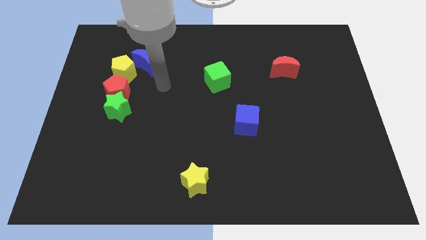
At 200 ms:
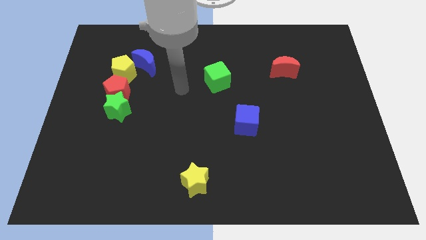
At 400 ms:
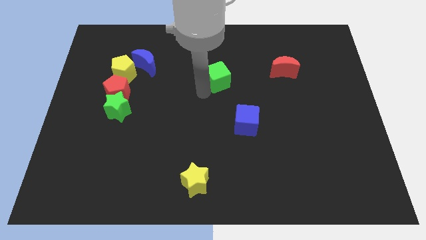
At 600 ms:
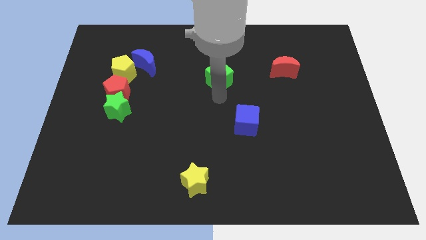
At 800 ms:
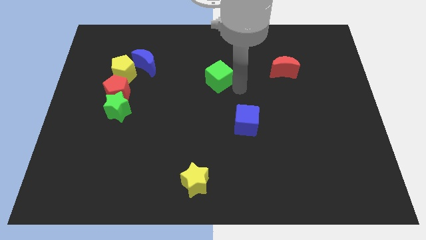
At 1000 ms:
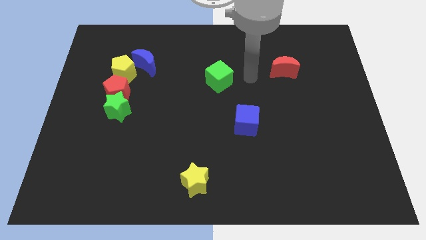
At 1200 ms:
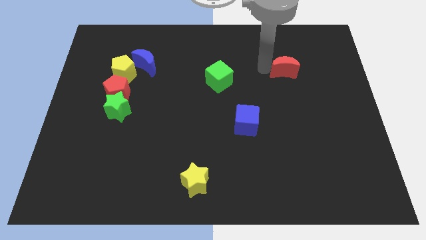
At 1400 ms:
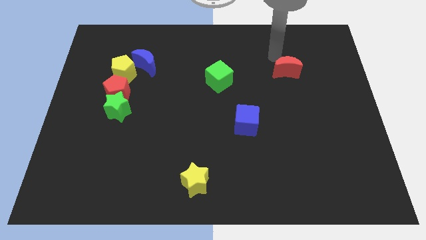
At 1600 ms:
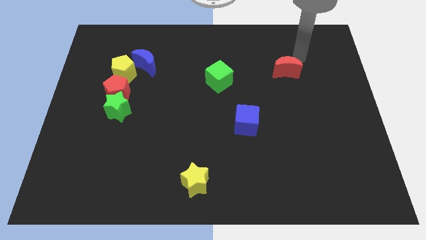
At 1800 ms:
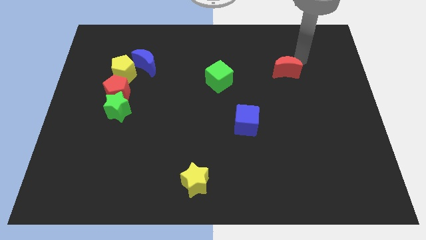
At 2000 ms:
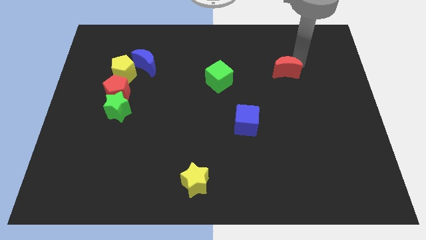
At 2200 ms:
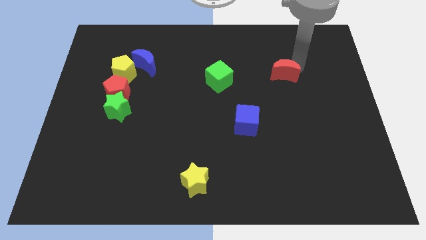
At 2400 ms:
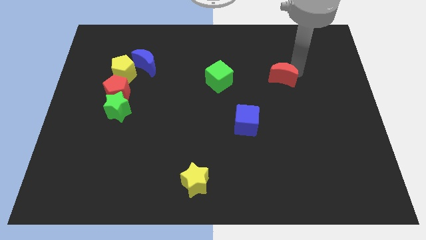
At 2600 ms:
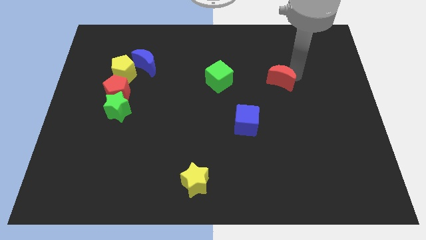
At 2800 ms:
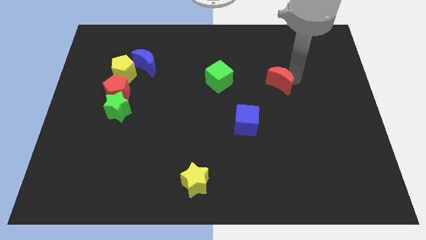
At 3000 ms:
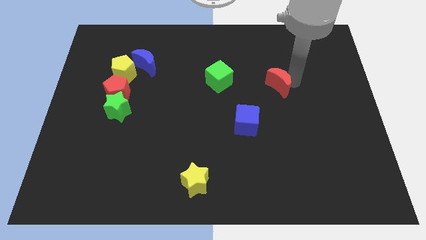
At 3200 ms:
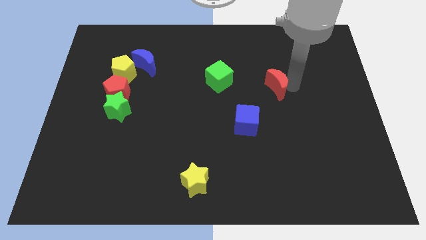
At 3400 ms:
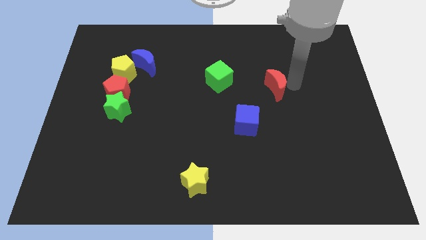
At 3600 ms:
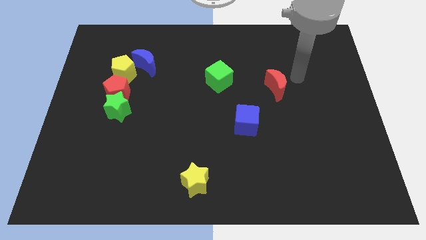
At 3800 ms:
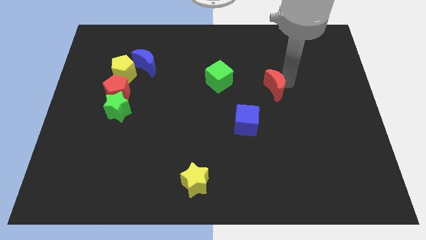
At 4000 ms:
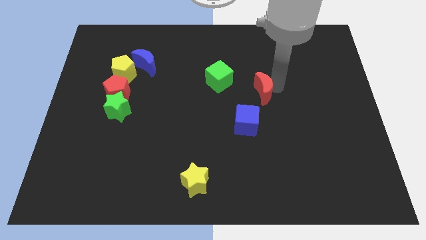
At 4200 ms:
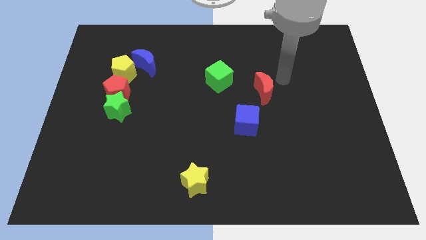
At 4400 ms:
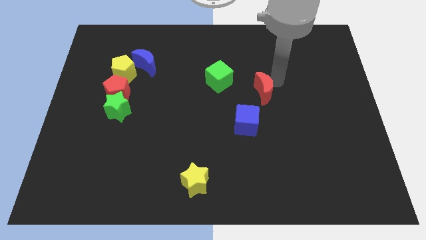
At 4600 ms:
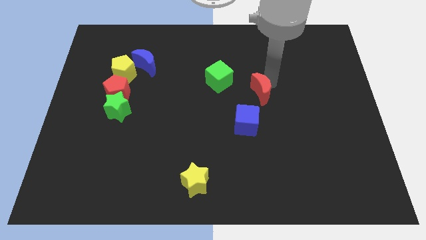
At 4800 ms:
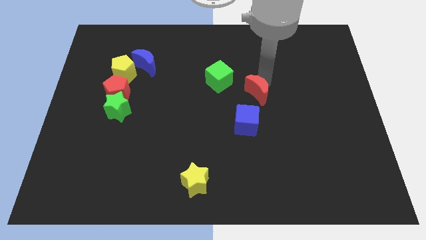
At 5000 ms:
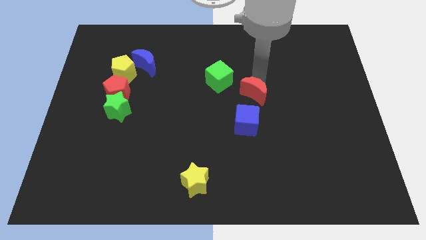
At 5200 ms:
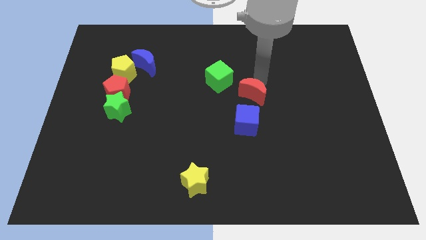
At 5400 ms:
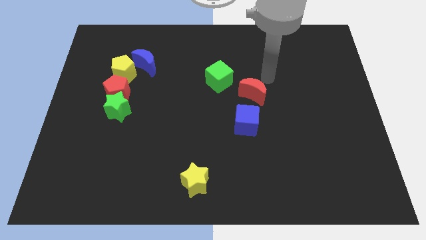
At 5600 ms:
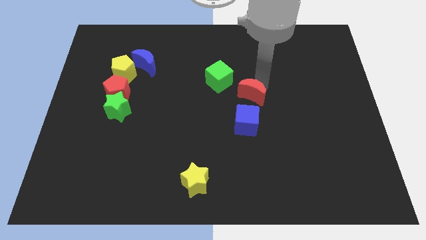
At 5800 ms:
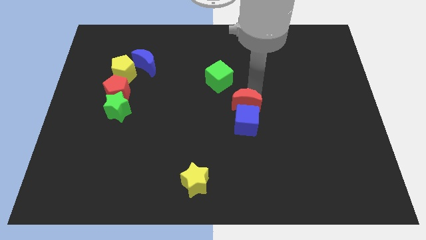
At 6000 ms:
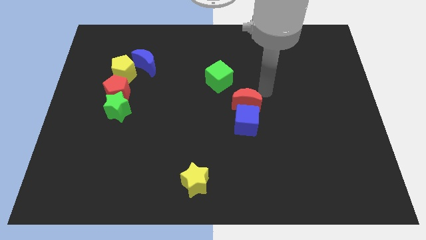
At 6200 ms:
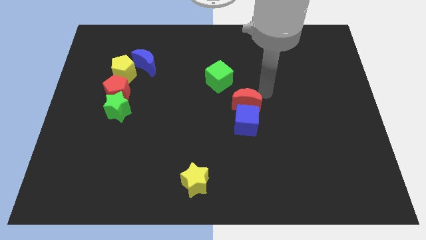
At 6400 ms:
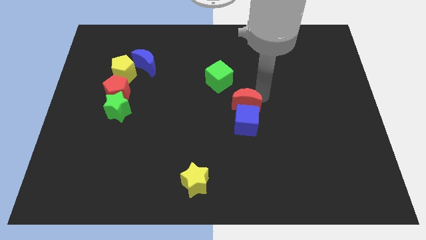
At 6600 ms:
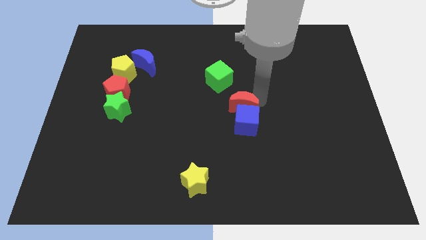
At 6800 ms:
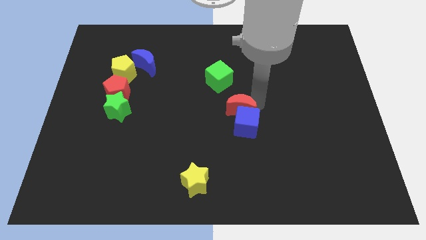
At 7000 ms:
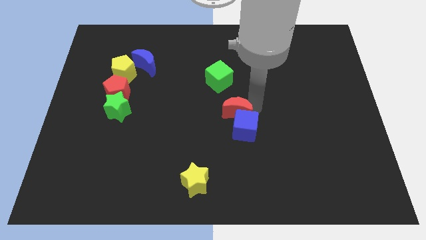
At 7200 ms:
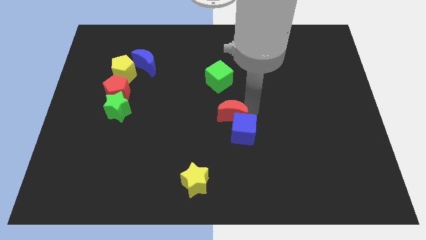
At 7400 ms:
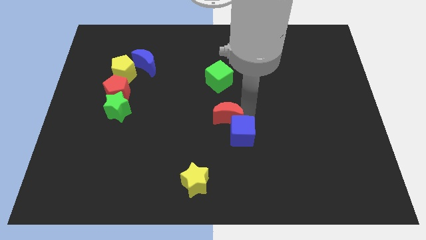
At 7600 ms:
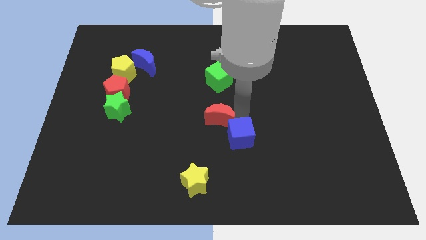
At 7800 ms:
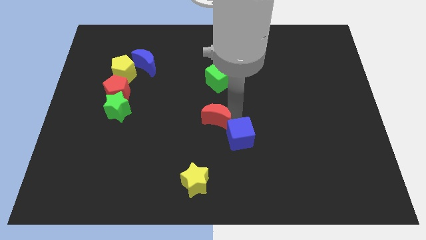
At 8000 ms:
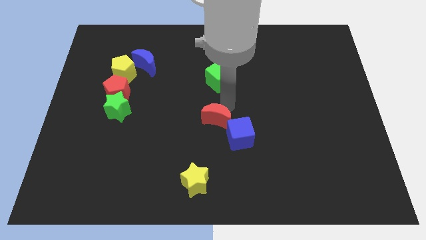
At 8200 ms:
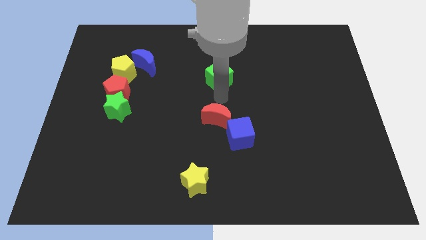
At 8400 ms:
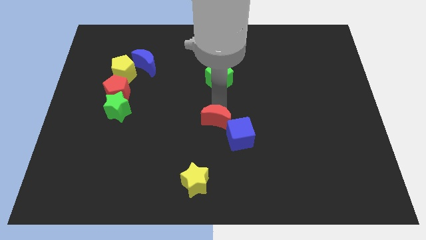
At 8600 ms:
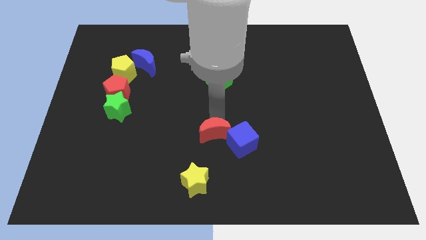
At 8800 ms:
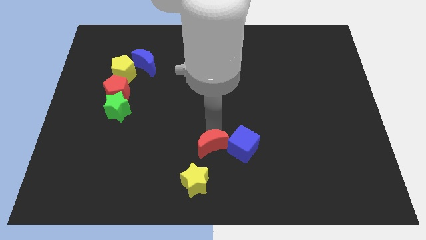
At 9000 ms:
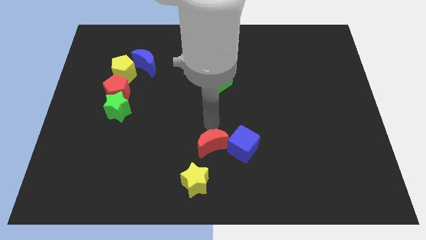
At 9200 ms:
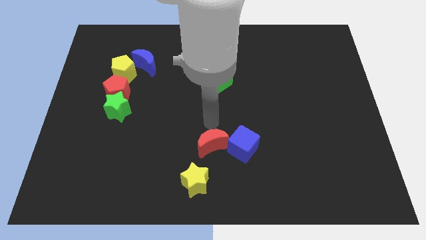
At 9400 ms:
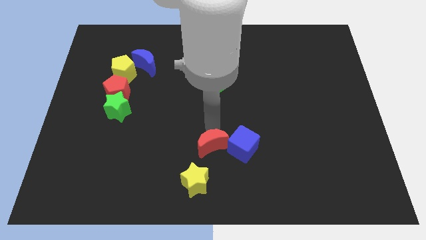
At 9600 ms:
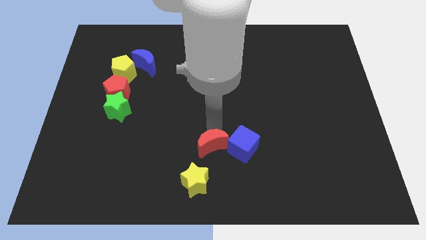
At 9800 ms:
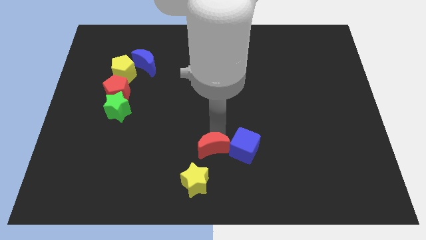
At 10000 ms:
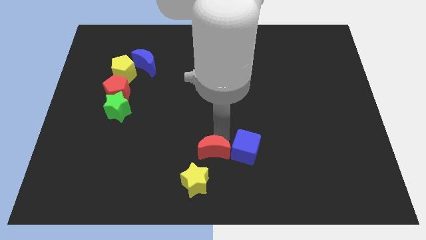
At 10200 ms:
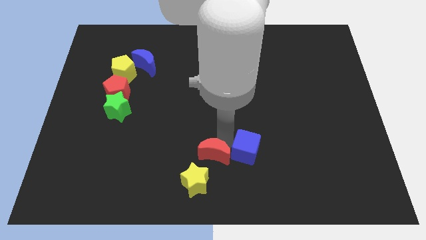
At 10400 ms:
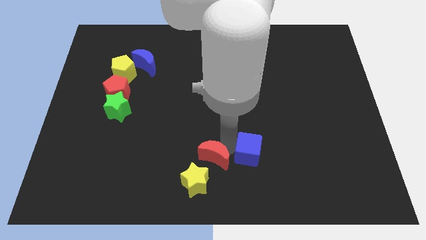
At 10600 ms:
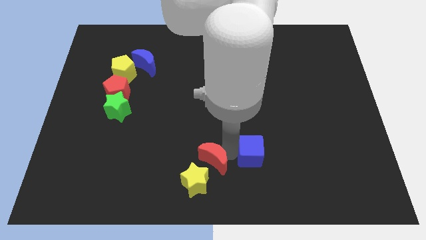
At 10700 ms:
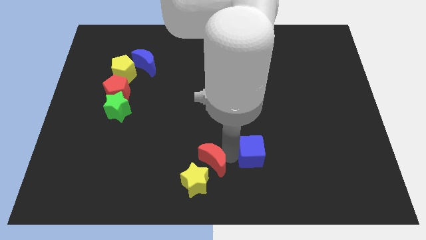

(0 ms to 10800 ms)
push the red moon towards the yellow star

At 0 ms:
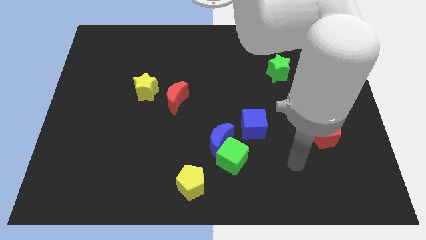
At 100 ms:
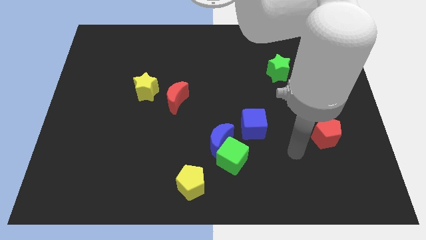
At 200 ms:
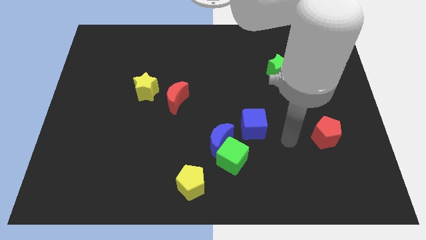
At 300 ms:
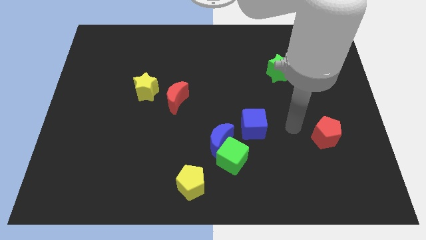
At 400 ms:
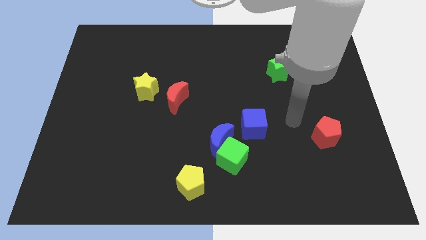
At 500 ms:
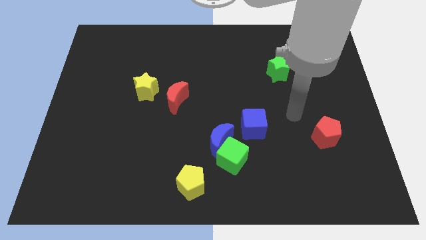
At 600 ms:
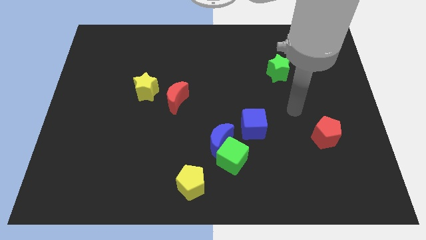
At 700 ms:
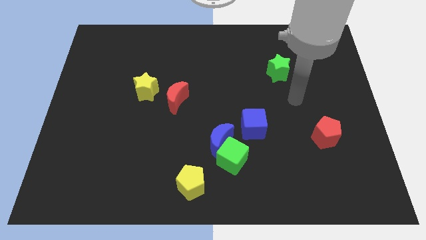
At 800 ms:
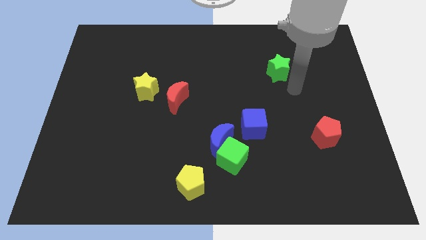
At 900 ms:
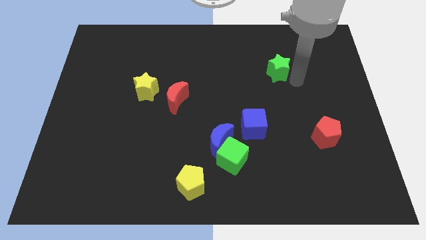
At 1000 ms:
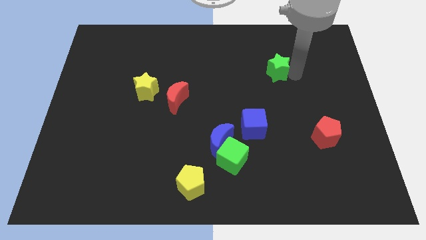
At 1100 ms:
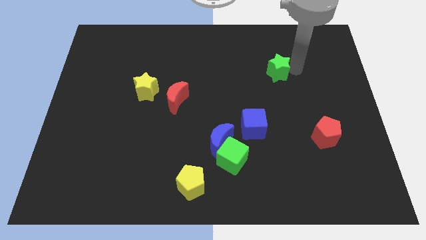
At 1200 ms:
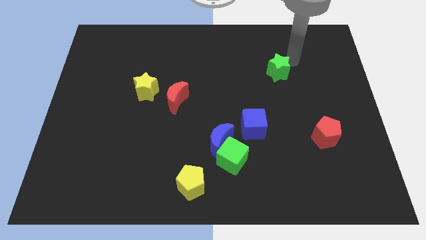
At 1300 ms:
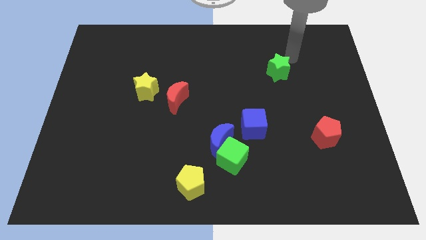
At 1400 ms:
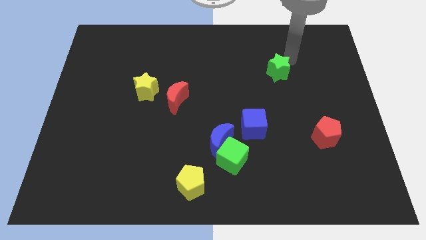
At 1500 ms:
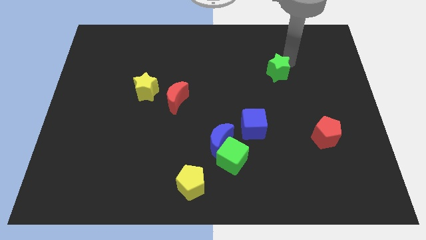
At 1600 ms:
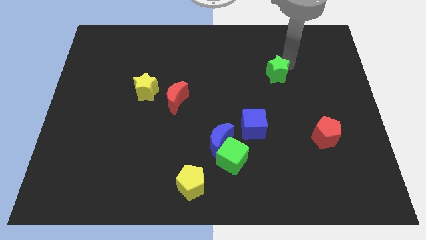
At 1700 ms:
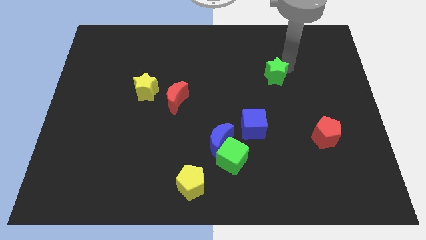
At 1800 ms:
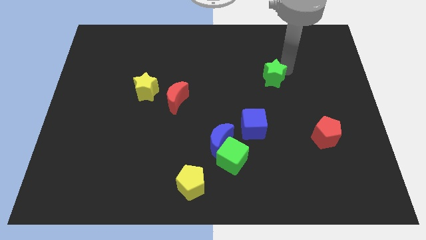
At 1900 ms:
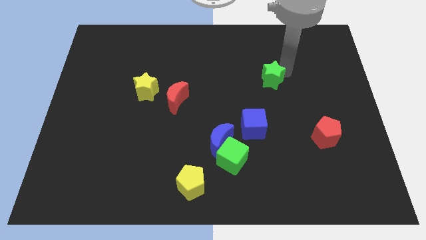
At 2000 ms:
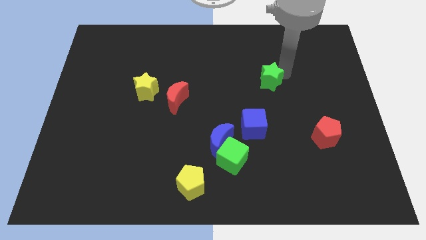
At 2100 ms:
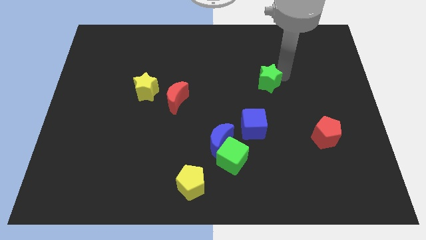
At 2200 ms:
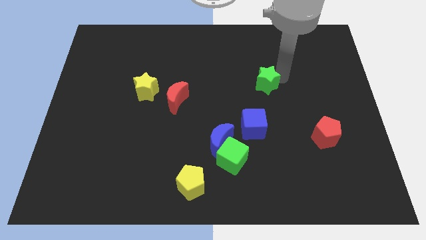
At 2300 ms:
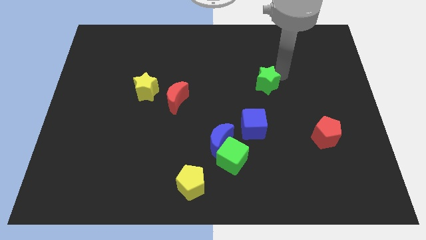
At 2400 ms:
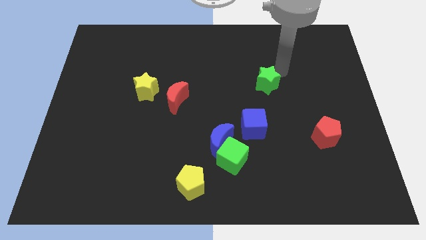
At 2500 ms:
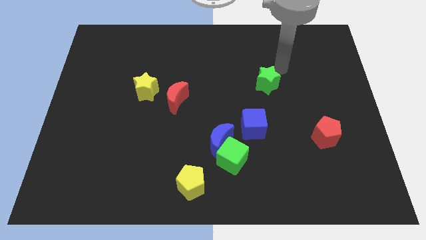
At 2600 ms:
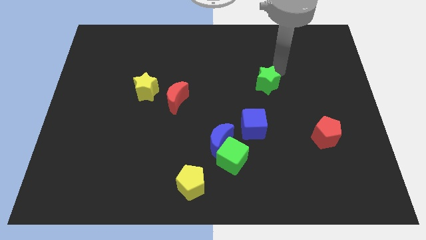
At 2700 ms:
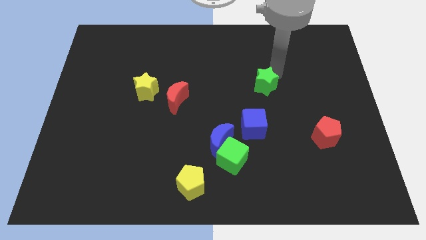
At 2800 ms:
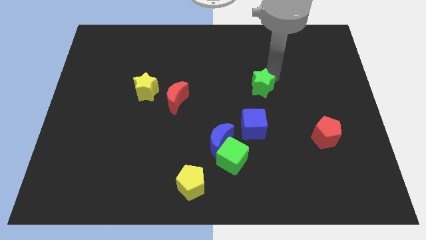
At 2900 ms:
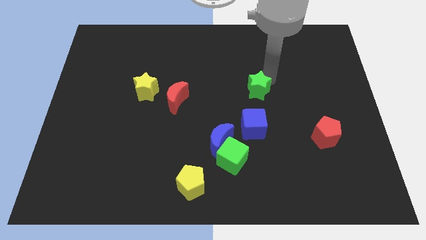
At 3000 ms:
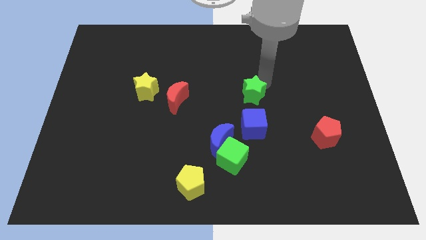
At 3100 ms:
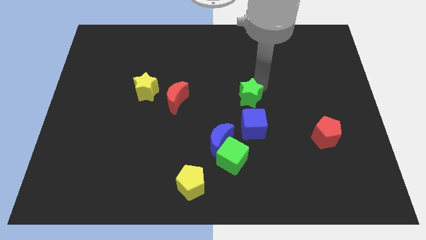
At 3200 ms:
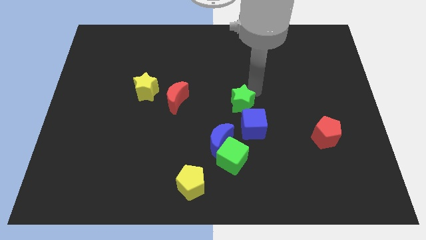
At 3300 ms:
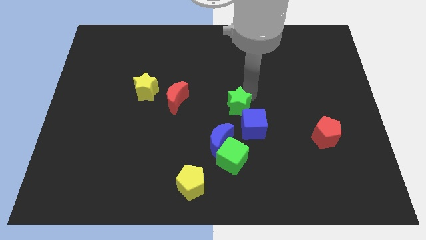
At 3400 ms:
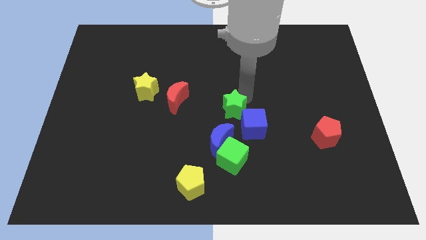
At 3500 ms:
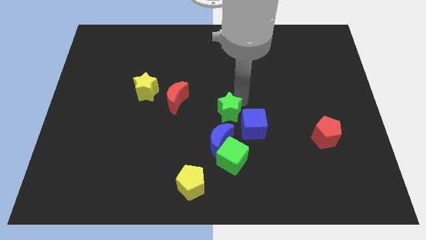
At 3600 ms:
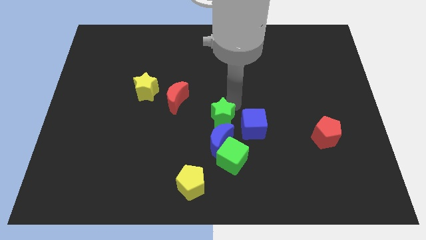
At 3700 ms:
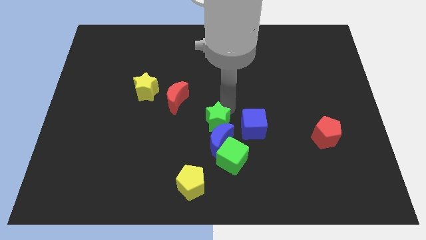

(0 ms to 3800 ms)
move the green star next to the blue moon
